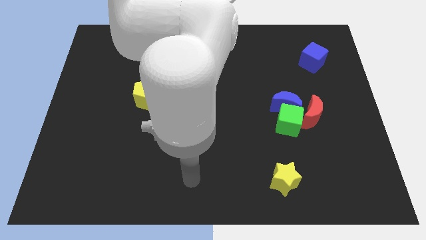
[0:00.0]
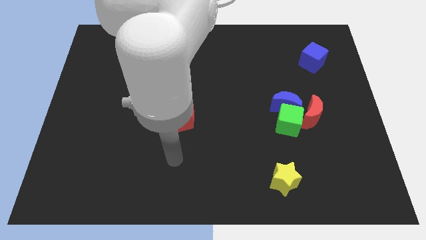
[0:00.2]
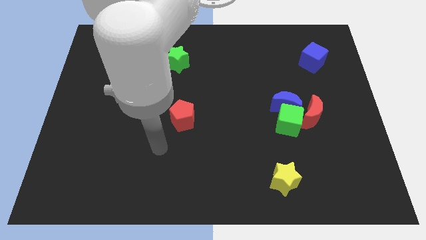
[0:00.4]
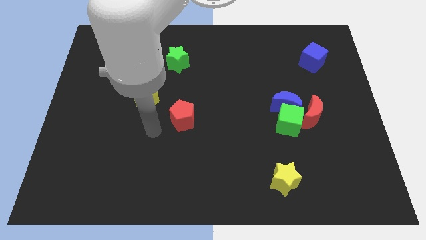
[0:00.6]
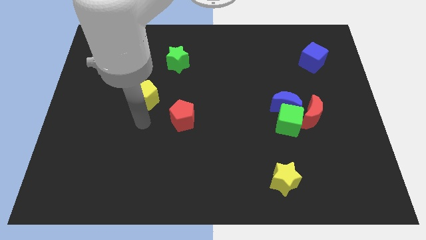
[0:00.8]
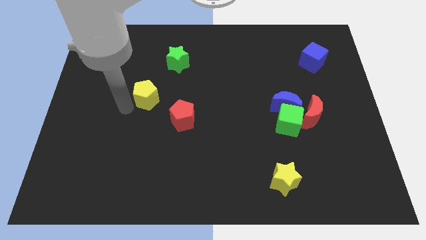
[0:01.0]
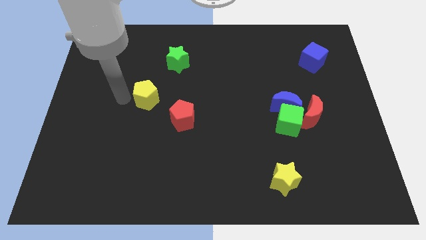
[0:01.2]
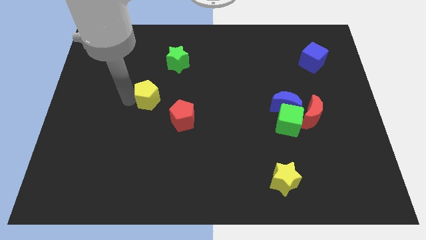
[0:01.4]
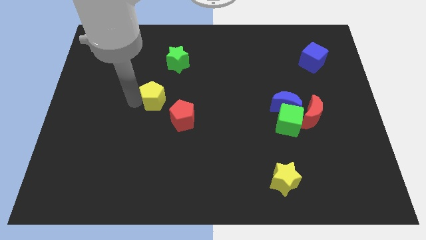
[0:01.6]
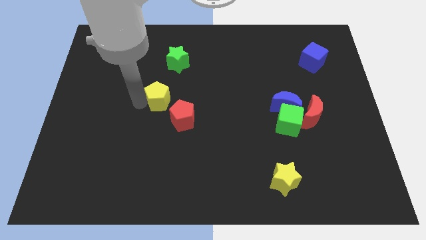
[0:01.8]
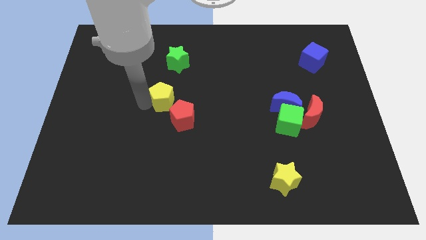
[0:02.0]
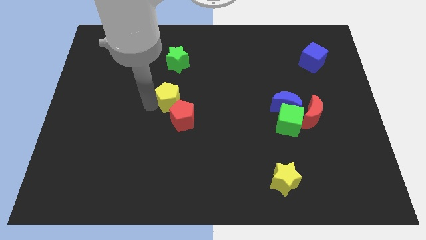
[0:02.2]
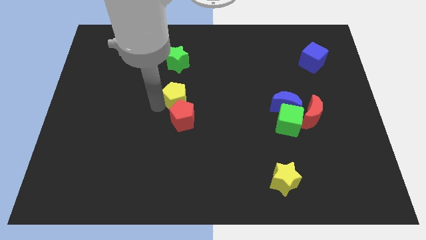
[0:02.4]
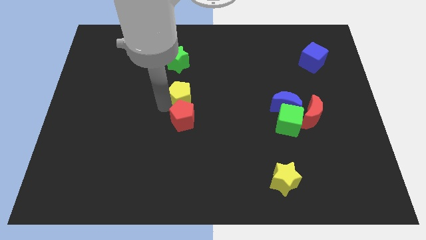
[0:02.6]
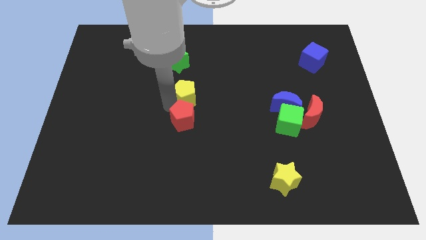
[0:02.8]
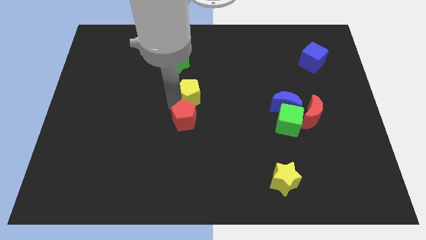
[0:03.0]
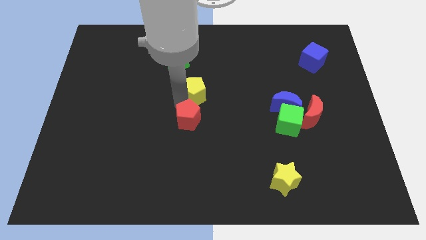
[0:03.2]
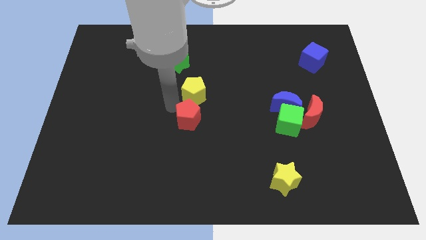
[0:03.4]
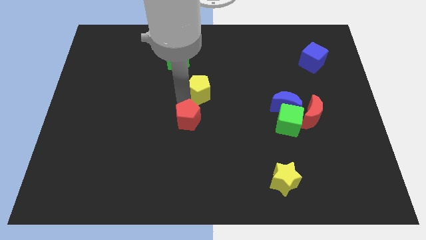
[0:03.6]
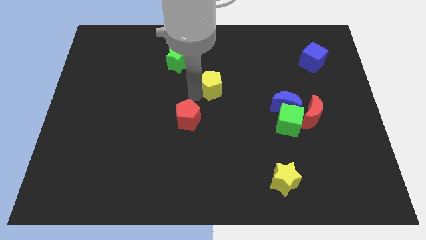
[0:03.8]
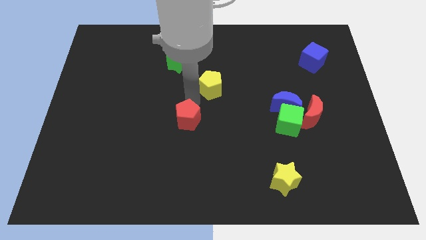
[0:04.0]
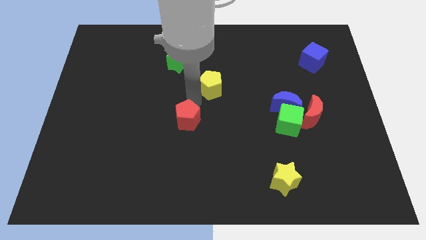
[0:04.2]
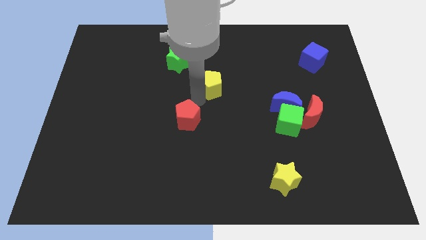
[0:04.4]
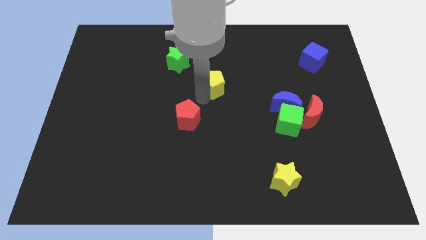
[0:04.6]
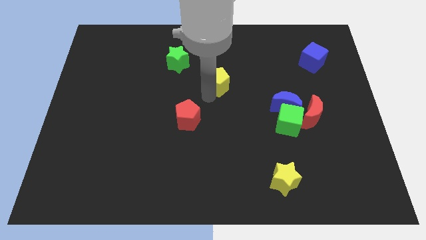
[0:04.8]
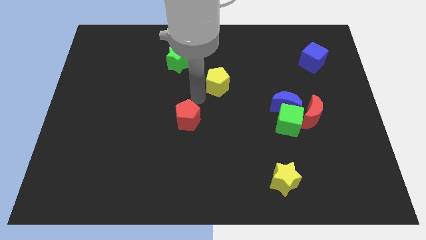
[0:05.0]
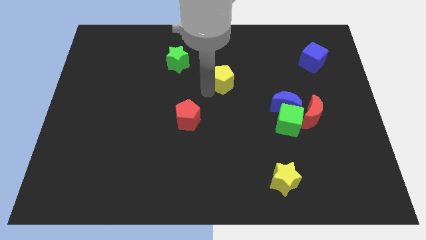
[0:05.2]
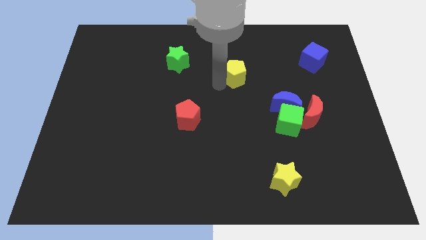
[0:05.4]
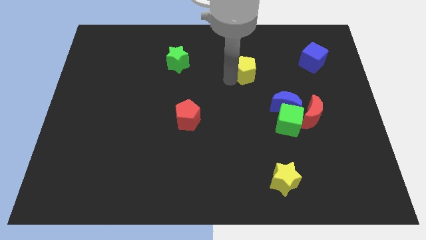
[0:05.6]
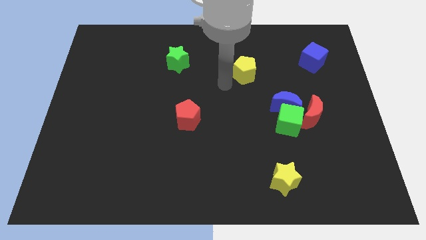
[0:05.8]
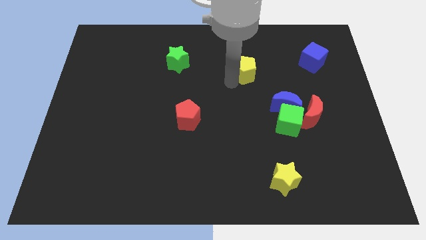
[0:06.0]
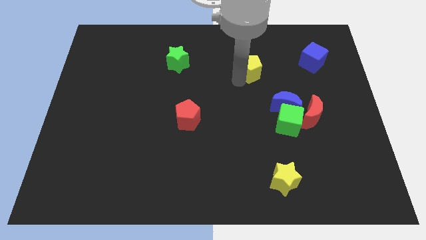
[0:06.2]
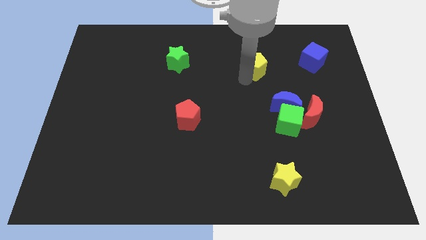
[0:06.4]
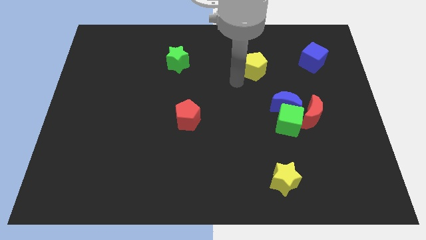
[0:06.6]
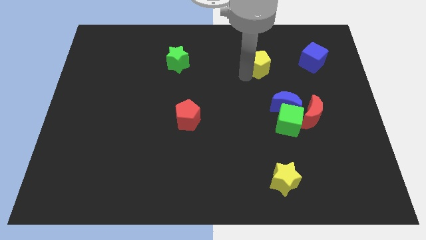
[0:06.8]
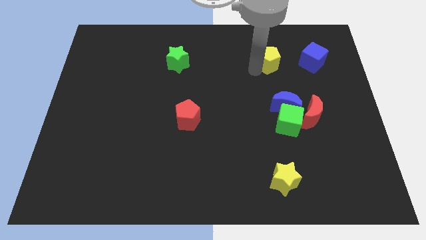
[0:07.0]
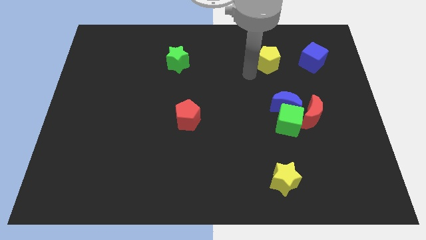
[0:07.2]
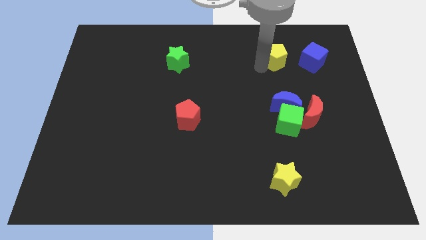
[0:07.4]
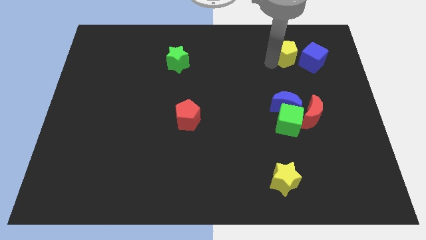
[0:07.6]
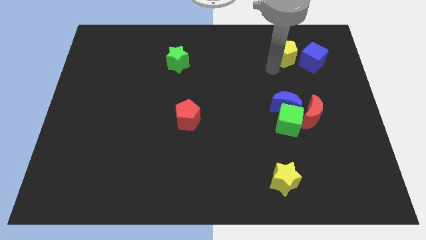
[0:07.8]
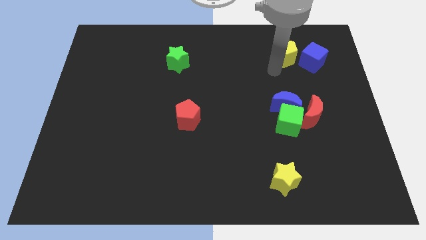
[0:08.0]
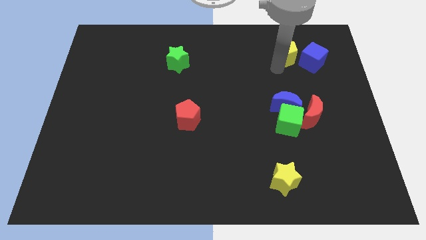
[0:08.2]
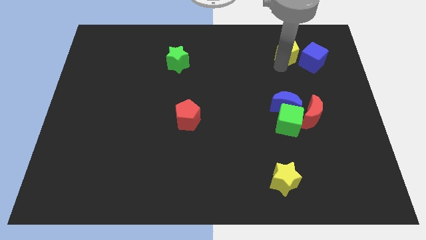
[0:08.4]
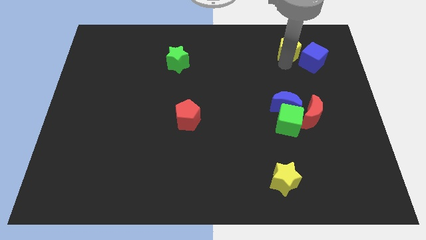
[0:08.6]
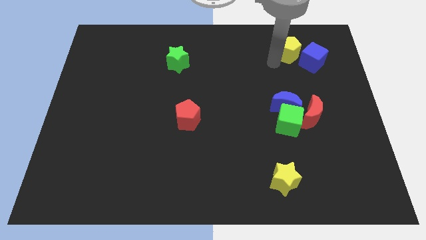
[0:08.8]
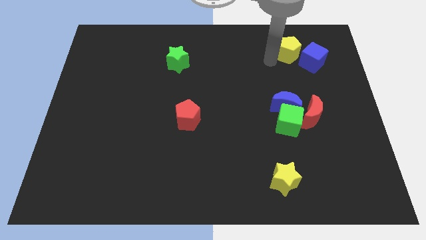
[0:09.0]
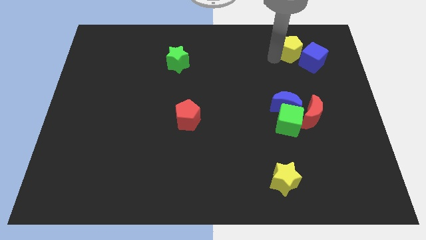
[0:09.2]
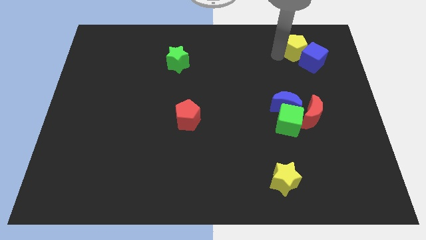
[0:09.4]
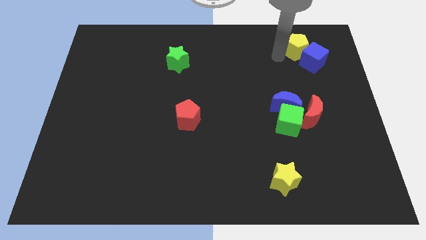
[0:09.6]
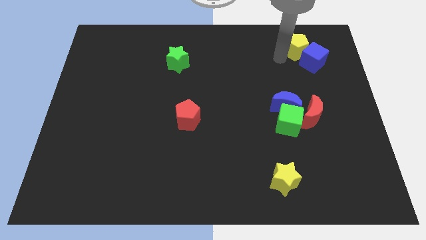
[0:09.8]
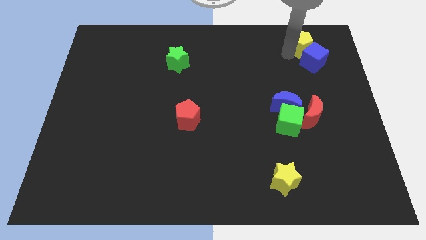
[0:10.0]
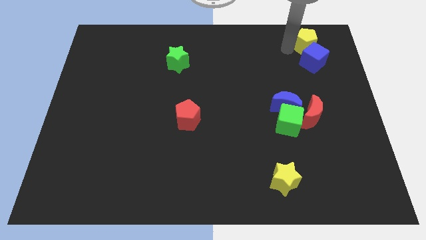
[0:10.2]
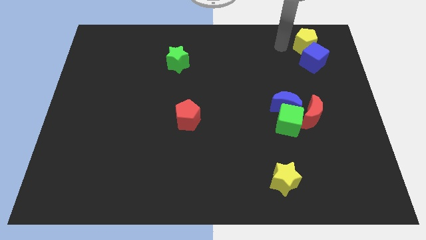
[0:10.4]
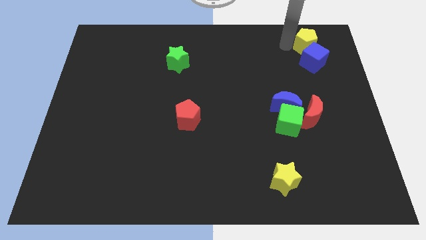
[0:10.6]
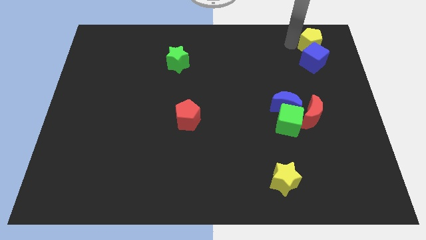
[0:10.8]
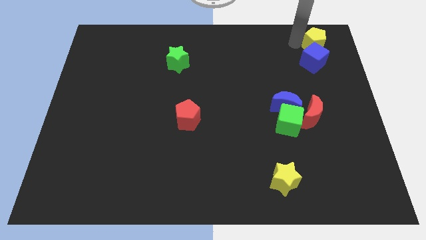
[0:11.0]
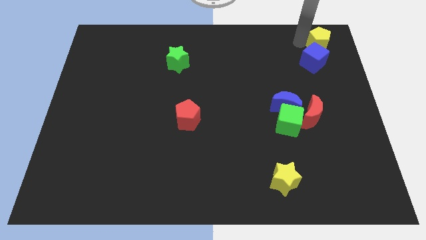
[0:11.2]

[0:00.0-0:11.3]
push the yellow pentagon to the top right of the board

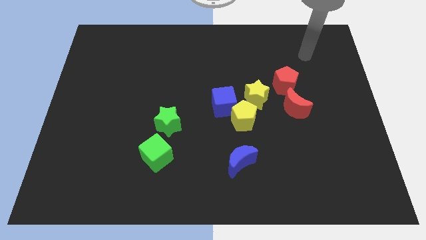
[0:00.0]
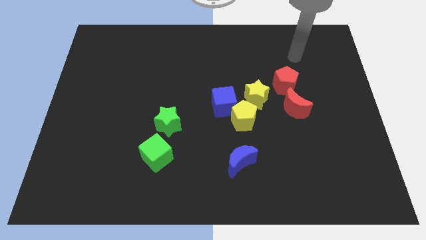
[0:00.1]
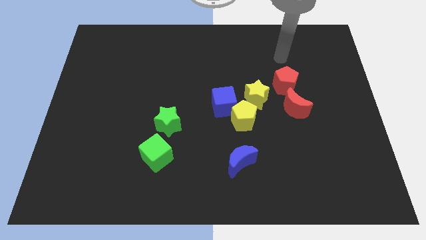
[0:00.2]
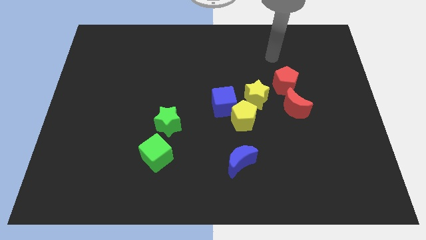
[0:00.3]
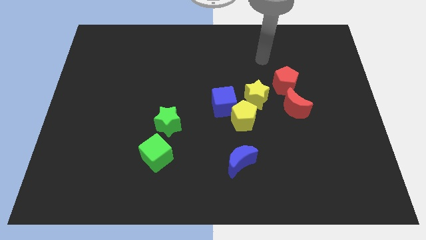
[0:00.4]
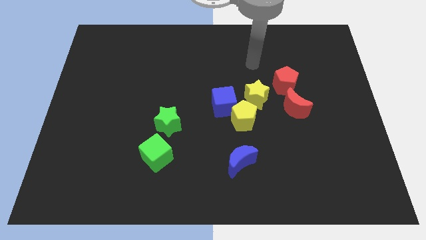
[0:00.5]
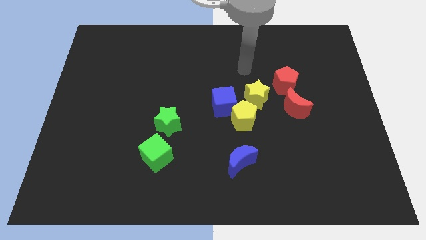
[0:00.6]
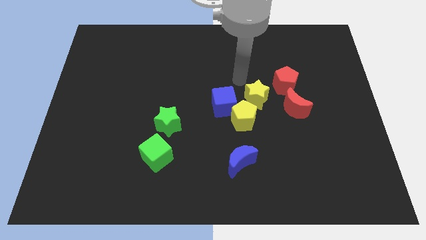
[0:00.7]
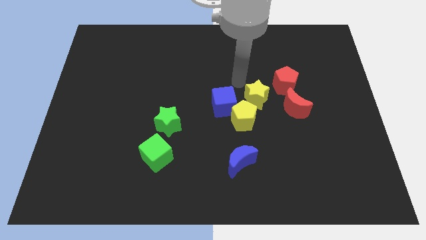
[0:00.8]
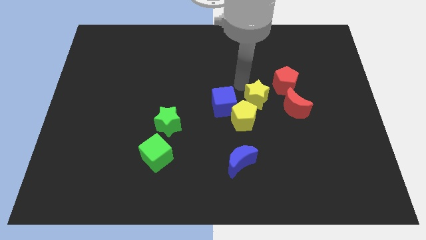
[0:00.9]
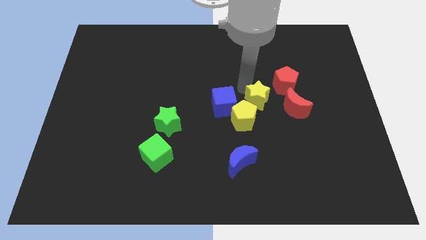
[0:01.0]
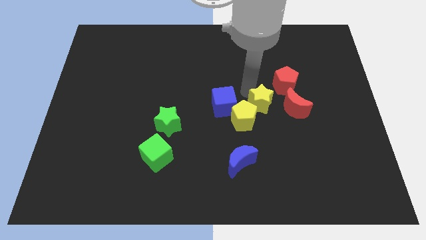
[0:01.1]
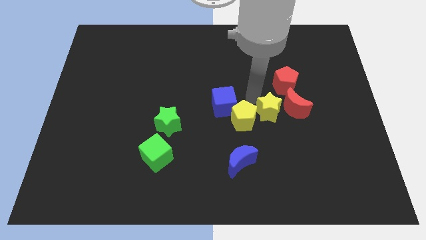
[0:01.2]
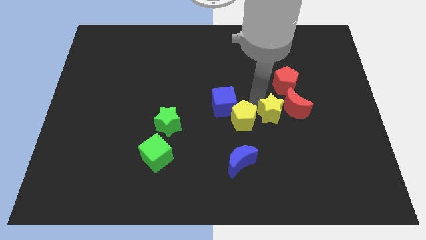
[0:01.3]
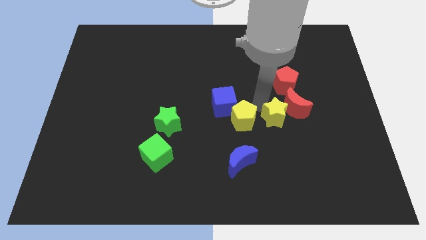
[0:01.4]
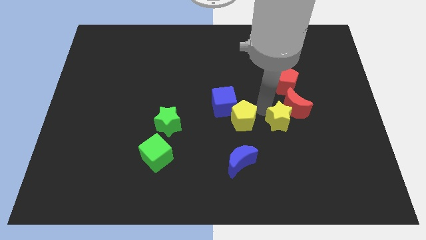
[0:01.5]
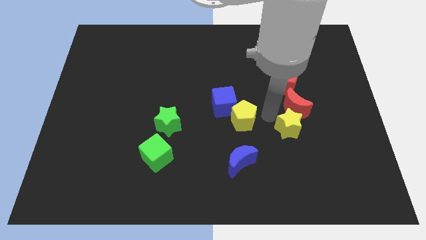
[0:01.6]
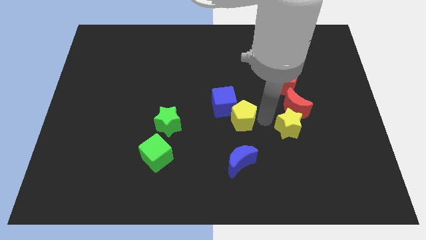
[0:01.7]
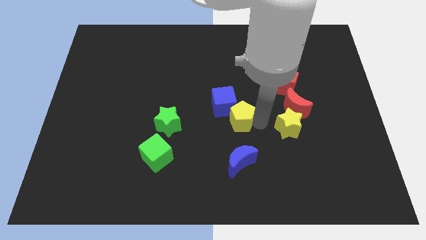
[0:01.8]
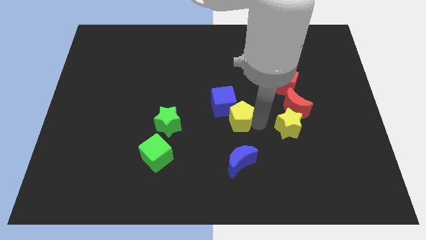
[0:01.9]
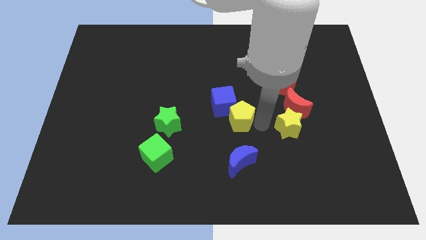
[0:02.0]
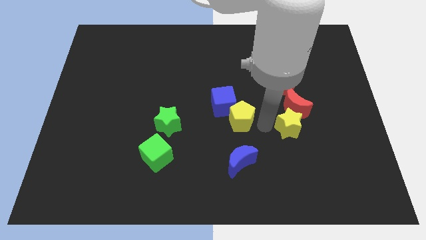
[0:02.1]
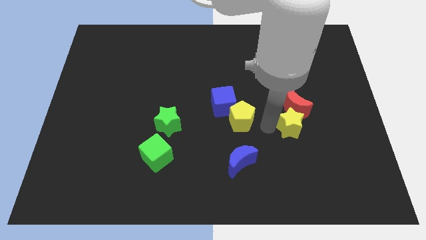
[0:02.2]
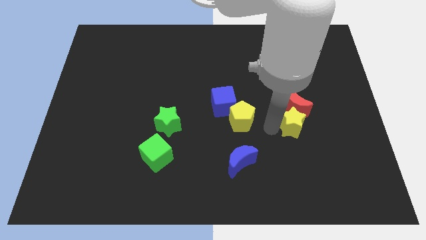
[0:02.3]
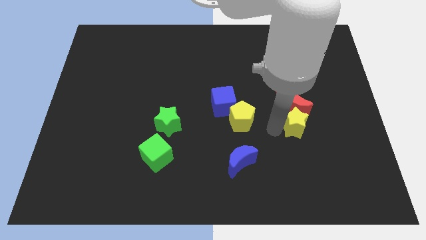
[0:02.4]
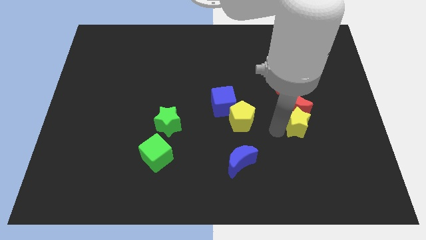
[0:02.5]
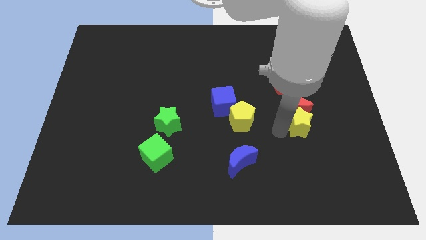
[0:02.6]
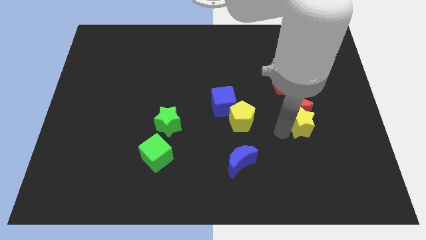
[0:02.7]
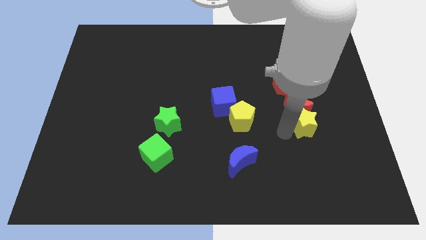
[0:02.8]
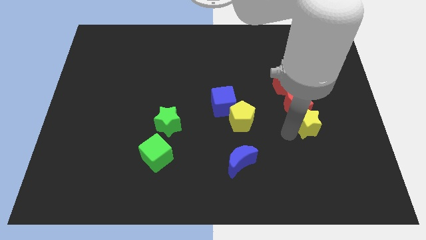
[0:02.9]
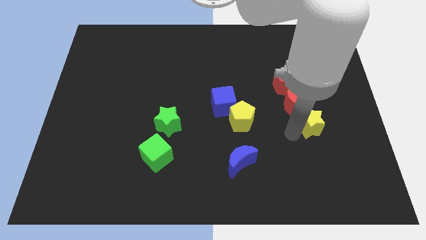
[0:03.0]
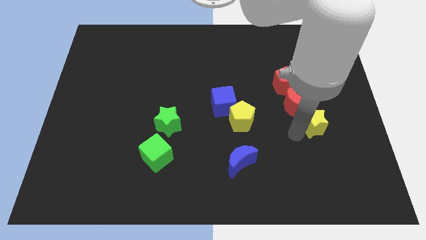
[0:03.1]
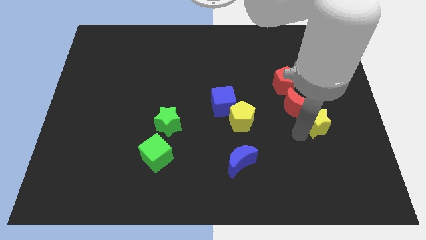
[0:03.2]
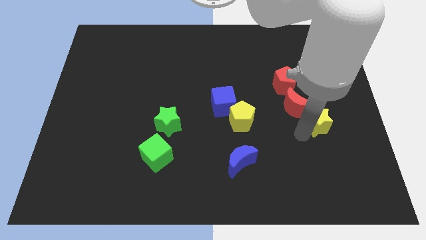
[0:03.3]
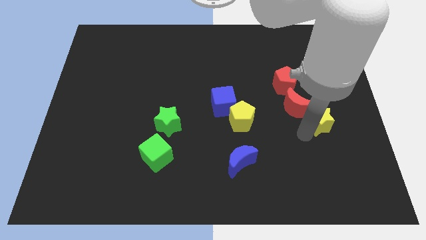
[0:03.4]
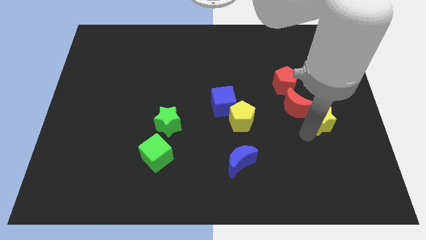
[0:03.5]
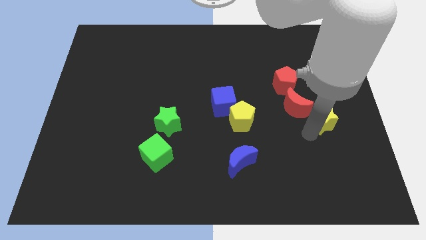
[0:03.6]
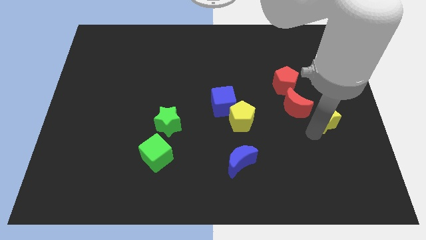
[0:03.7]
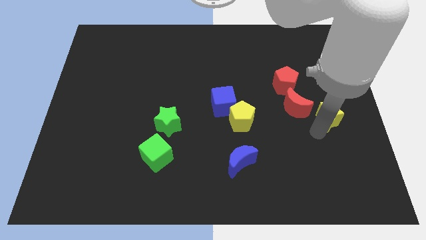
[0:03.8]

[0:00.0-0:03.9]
slide the yellow star to the right side of the board
